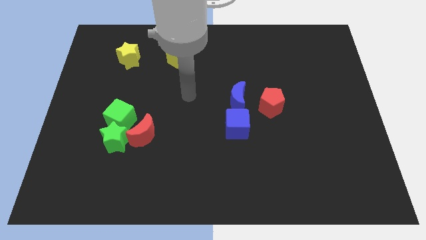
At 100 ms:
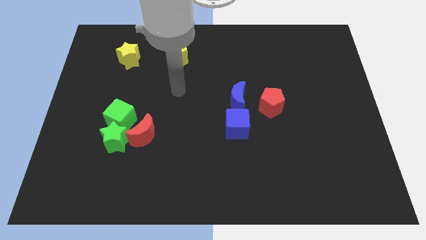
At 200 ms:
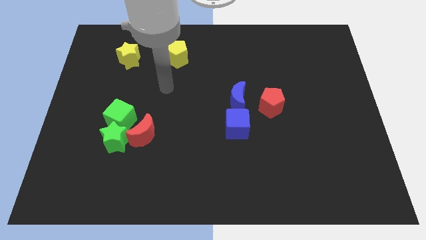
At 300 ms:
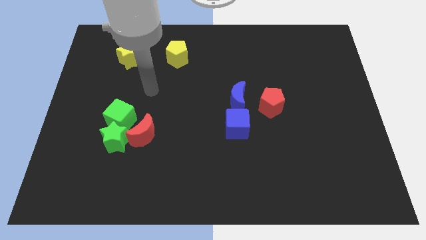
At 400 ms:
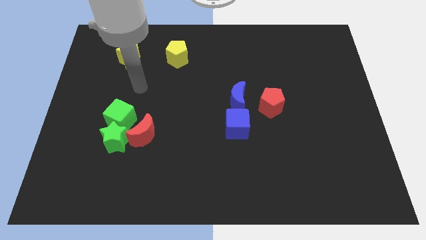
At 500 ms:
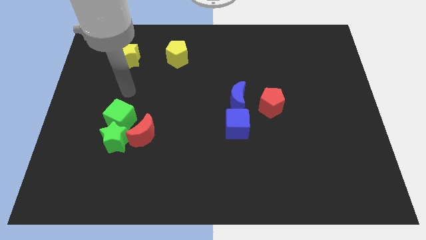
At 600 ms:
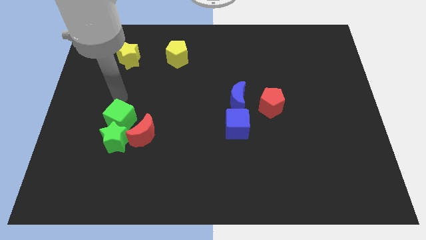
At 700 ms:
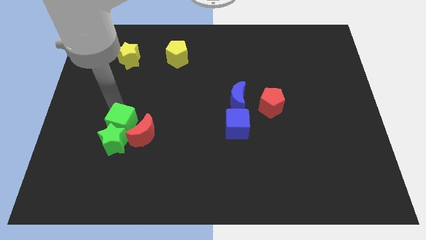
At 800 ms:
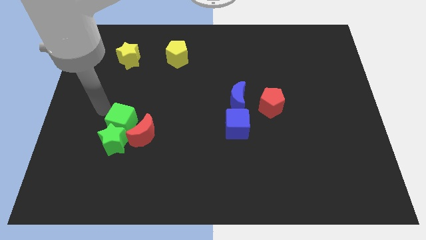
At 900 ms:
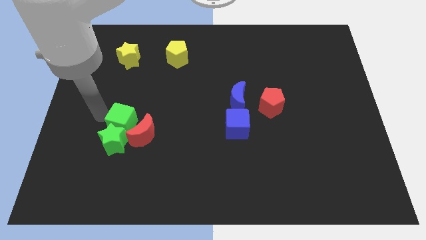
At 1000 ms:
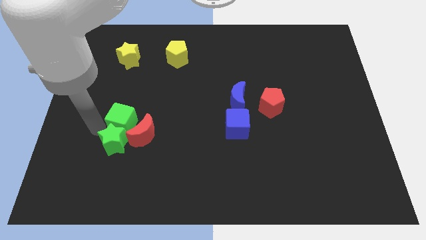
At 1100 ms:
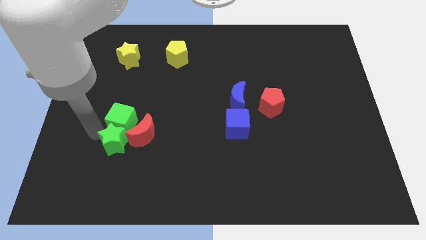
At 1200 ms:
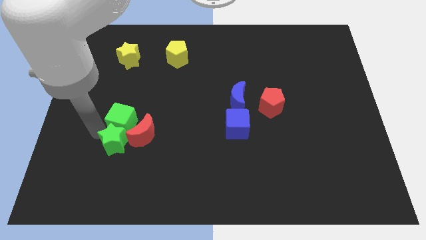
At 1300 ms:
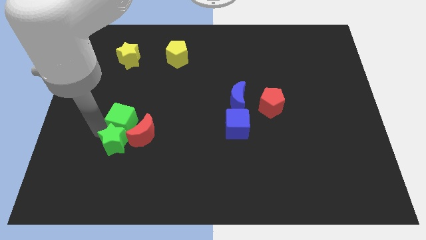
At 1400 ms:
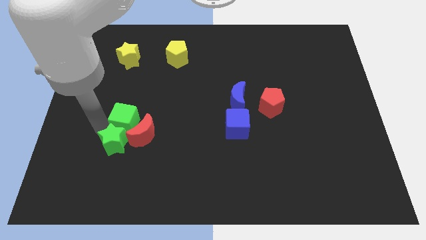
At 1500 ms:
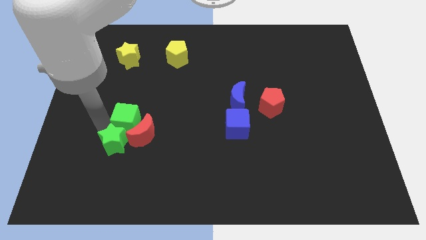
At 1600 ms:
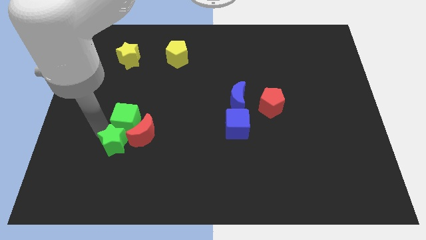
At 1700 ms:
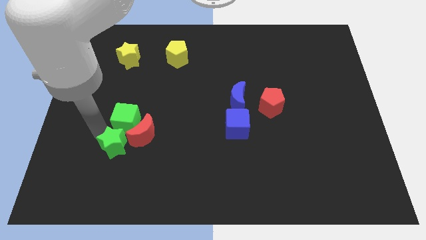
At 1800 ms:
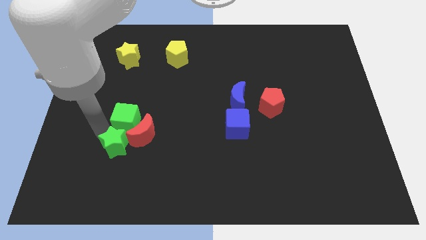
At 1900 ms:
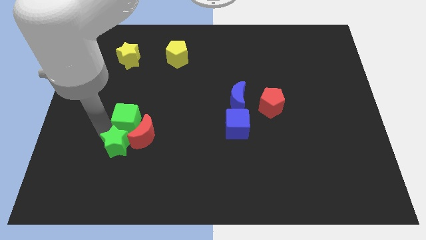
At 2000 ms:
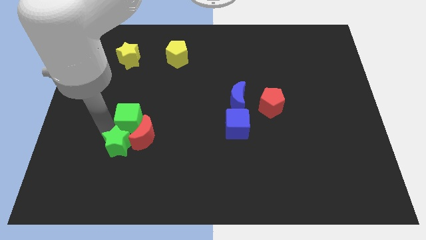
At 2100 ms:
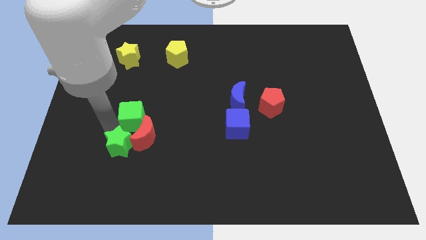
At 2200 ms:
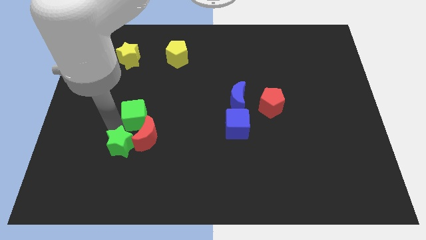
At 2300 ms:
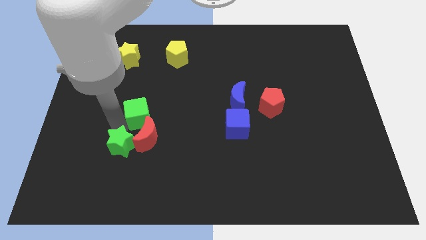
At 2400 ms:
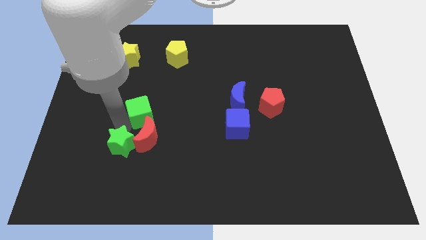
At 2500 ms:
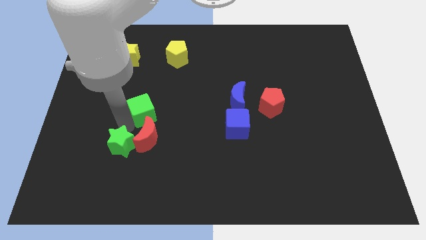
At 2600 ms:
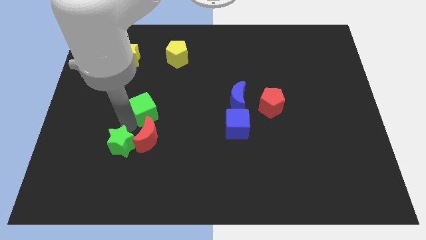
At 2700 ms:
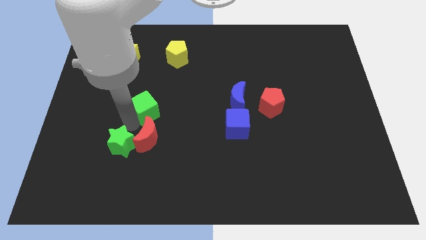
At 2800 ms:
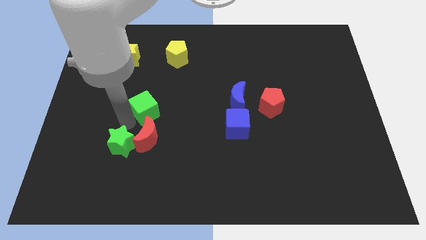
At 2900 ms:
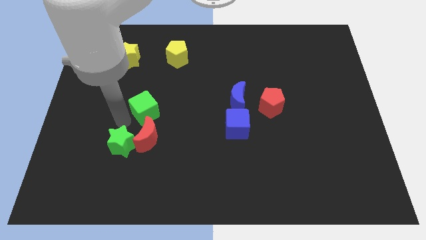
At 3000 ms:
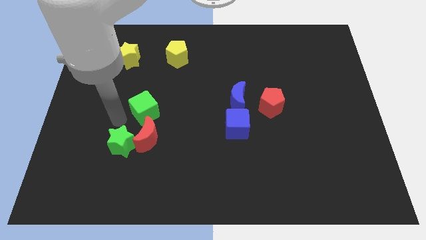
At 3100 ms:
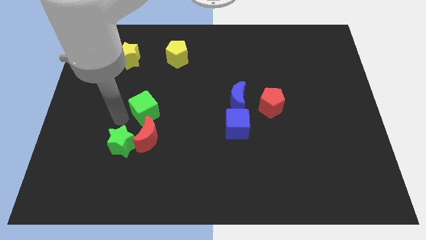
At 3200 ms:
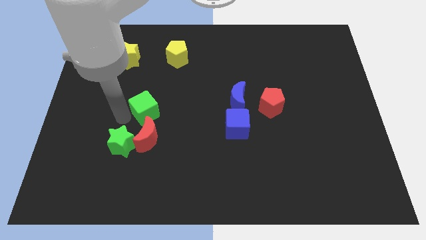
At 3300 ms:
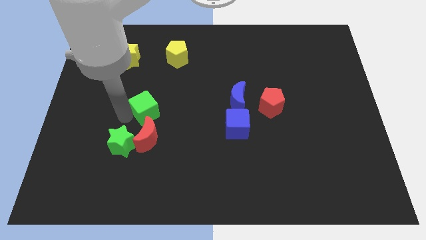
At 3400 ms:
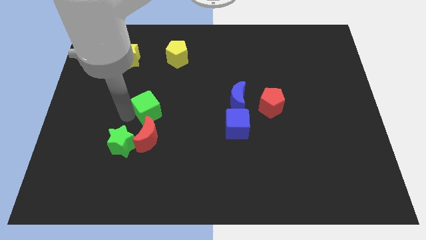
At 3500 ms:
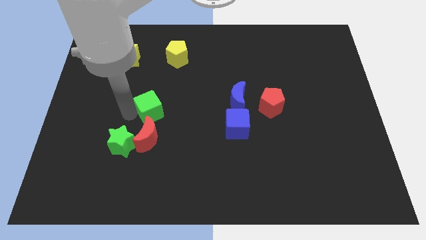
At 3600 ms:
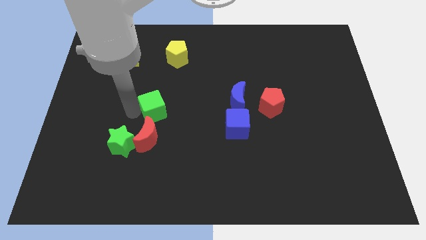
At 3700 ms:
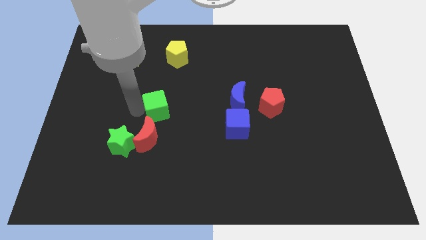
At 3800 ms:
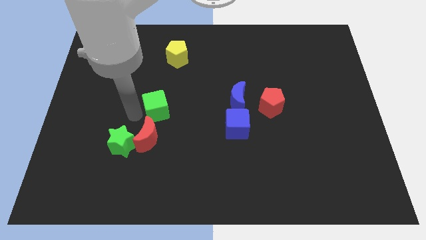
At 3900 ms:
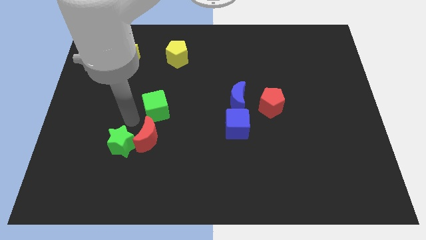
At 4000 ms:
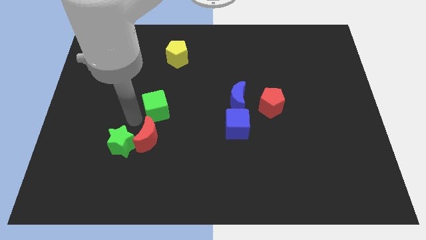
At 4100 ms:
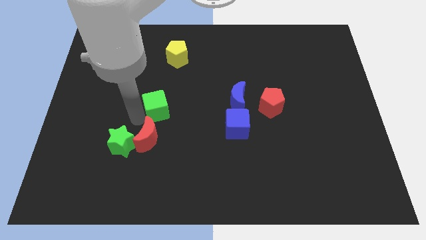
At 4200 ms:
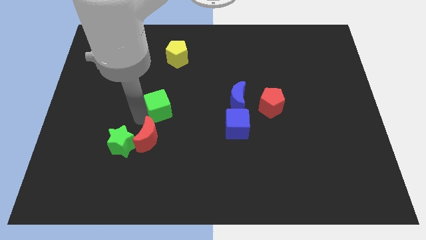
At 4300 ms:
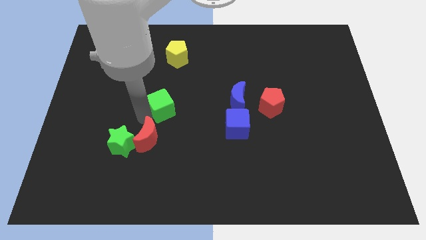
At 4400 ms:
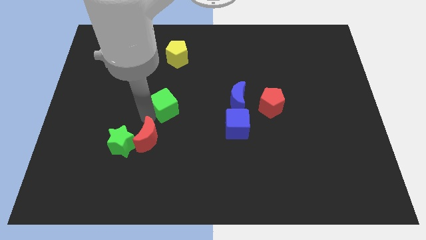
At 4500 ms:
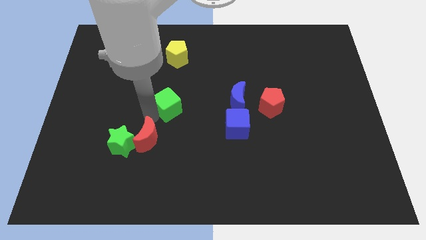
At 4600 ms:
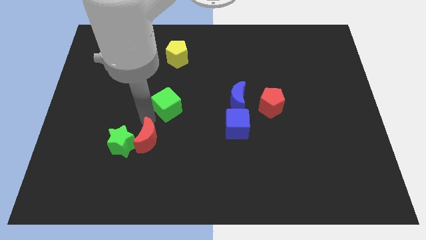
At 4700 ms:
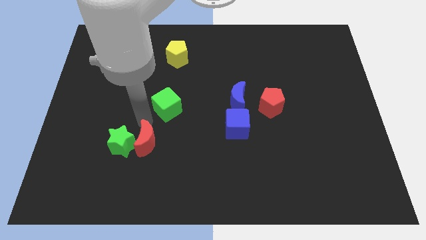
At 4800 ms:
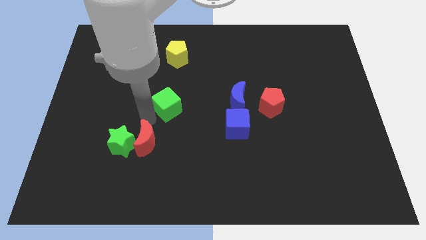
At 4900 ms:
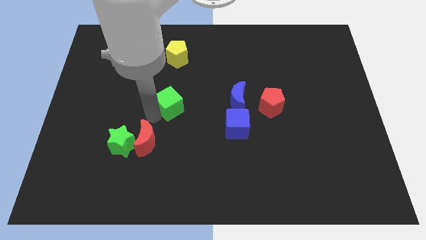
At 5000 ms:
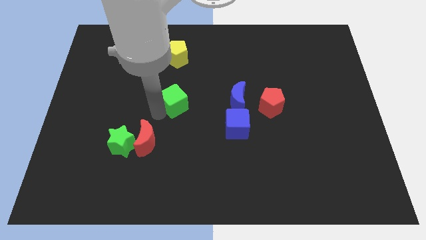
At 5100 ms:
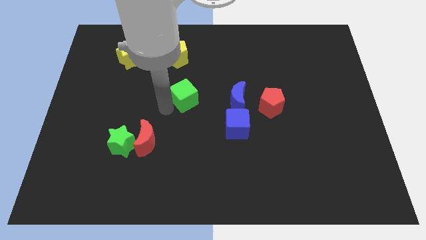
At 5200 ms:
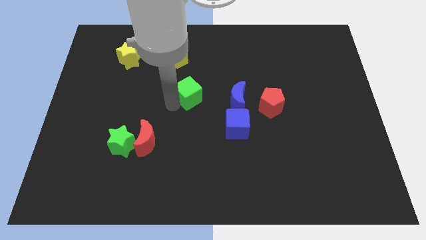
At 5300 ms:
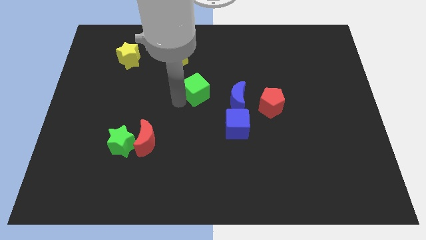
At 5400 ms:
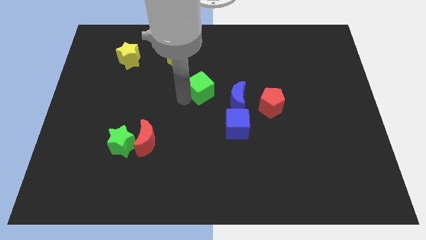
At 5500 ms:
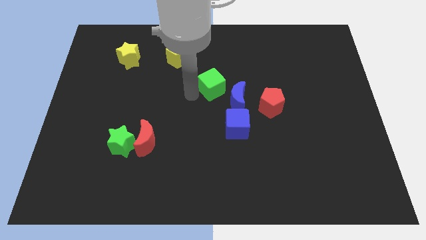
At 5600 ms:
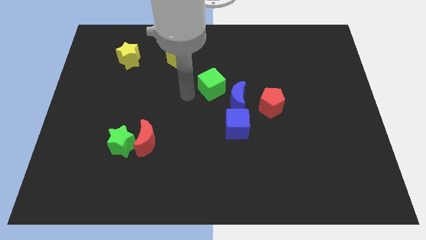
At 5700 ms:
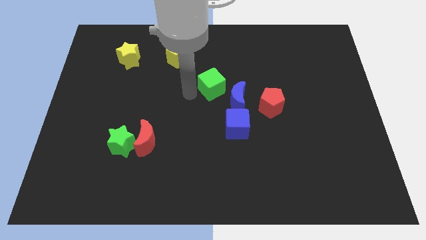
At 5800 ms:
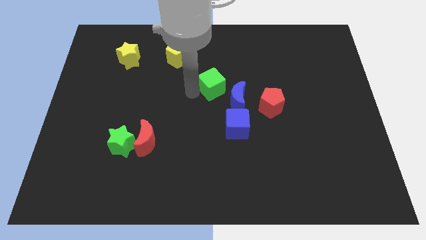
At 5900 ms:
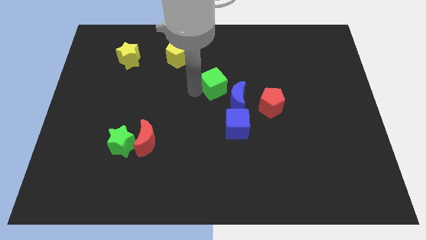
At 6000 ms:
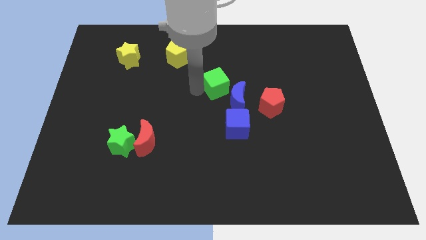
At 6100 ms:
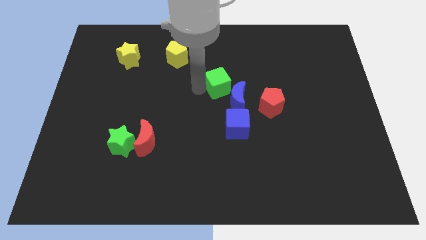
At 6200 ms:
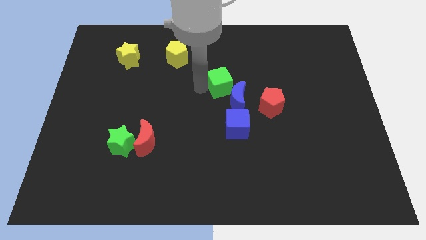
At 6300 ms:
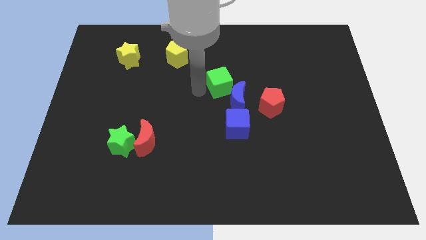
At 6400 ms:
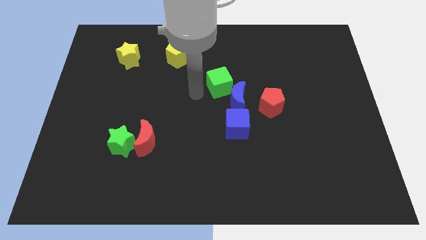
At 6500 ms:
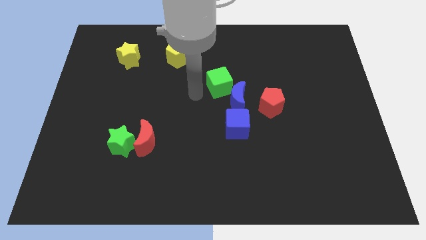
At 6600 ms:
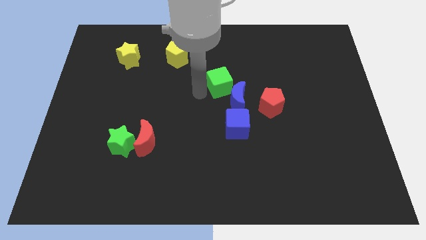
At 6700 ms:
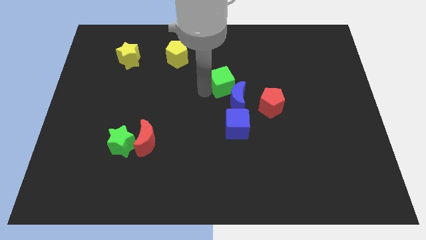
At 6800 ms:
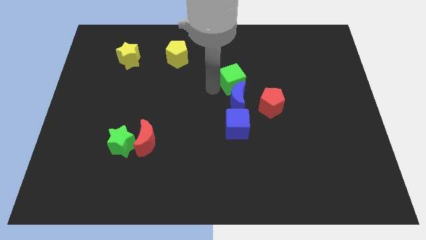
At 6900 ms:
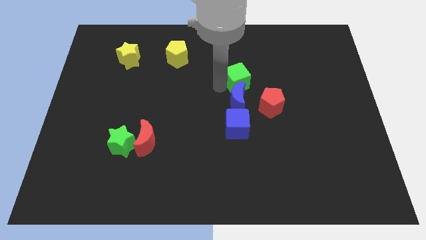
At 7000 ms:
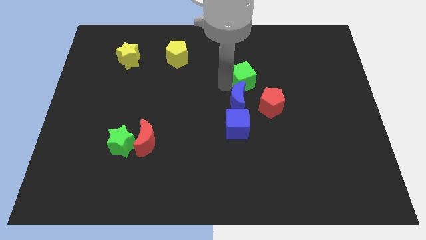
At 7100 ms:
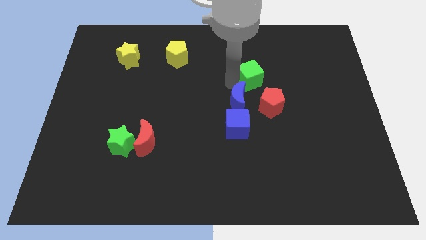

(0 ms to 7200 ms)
push the green cube to the top side of the red pentagon
